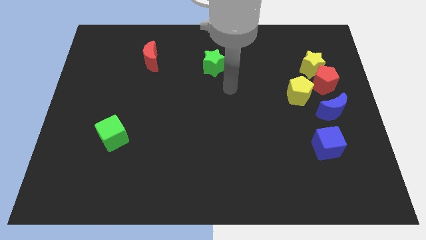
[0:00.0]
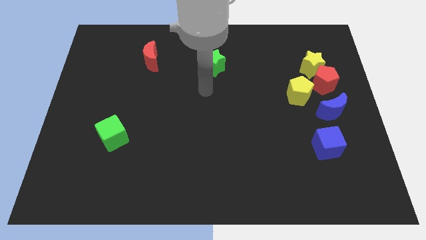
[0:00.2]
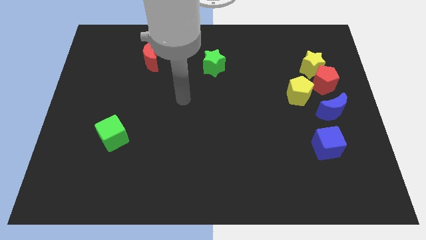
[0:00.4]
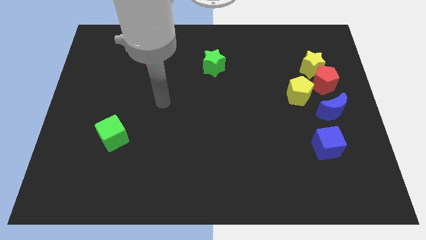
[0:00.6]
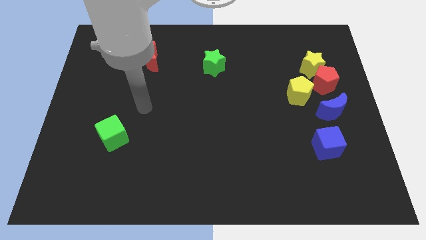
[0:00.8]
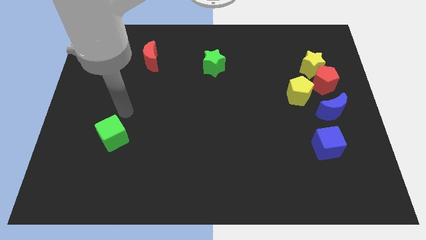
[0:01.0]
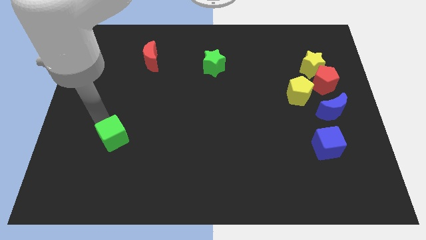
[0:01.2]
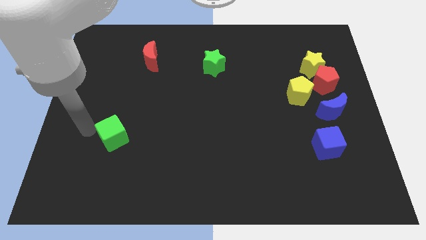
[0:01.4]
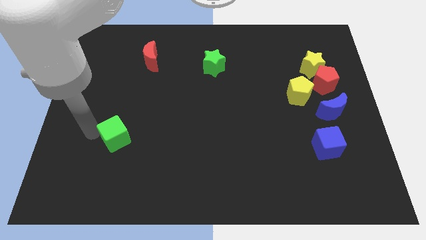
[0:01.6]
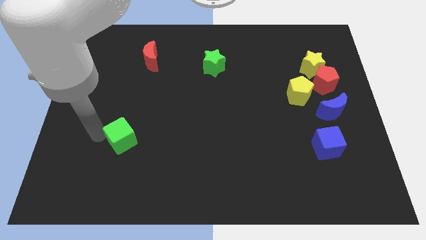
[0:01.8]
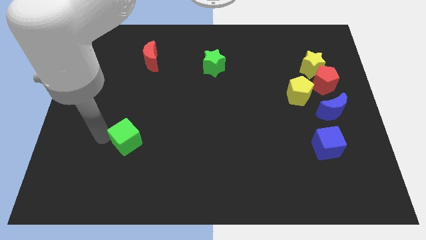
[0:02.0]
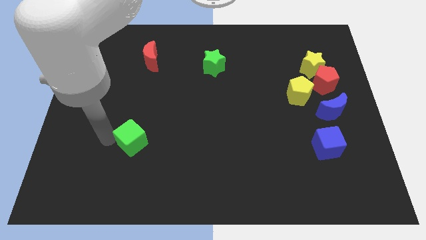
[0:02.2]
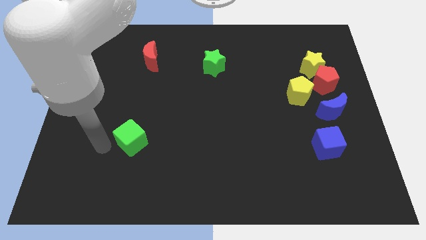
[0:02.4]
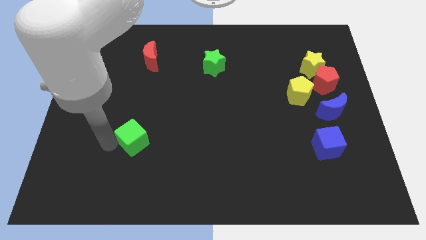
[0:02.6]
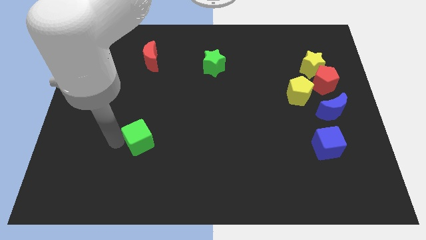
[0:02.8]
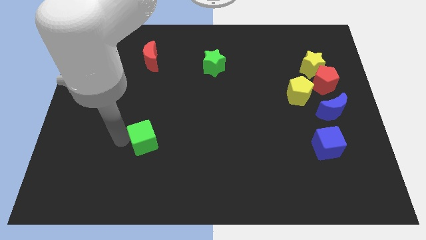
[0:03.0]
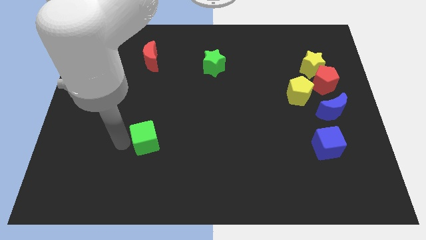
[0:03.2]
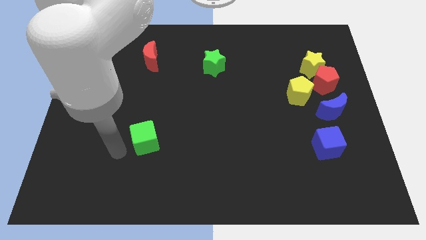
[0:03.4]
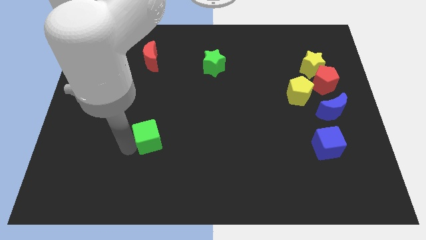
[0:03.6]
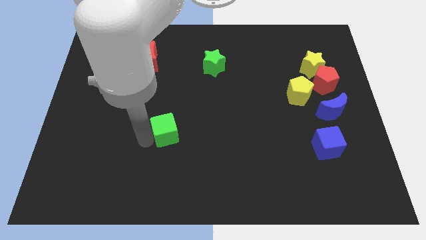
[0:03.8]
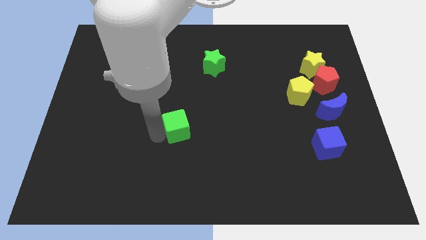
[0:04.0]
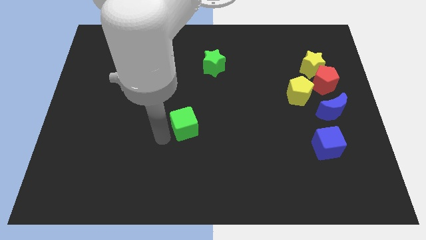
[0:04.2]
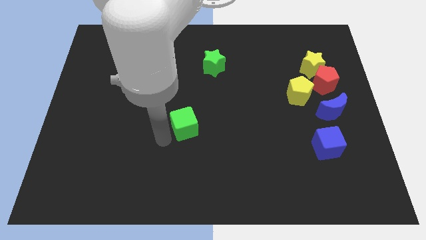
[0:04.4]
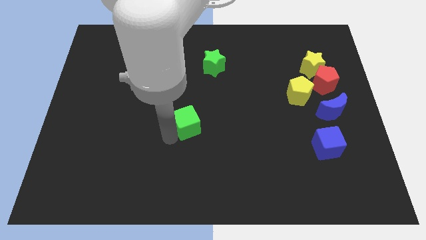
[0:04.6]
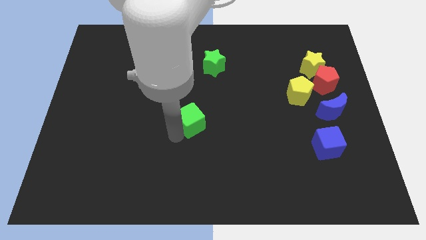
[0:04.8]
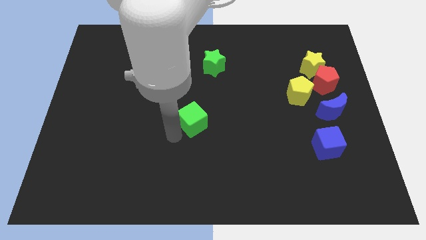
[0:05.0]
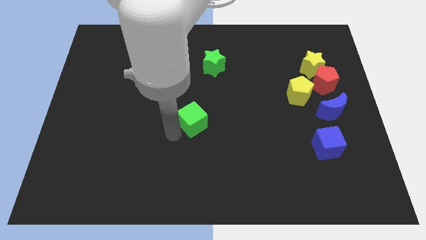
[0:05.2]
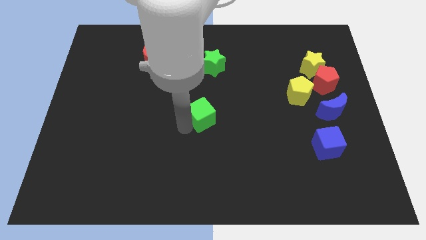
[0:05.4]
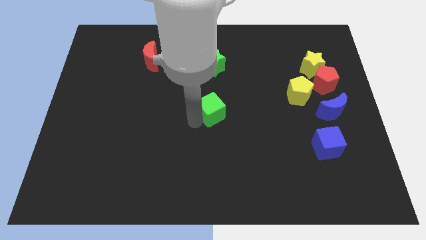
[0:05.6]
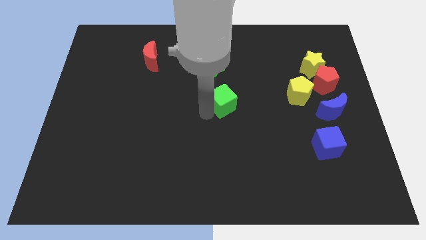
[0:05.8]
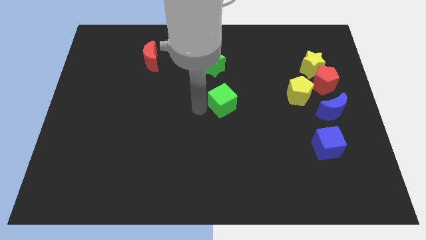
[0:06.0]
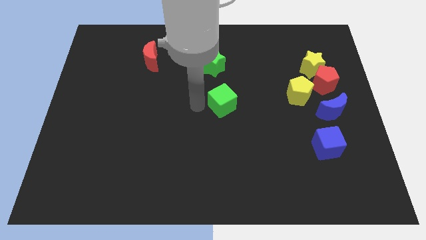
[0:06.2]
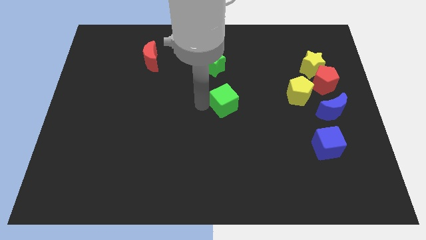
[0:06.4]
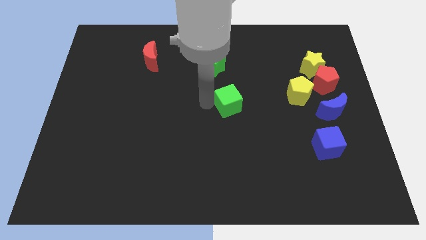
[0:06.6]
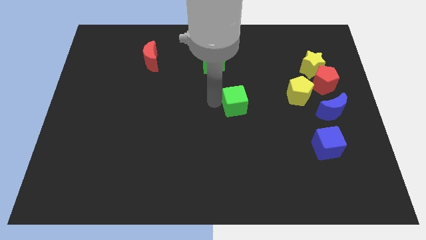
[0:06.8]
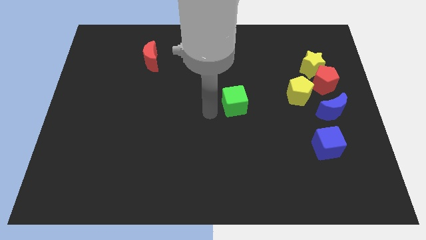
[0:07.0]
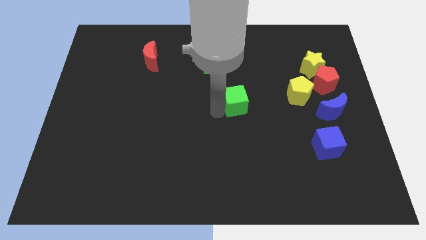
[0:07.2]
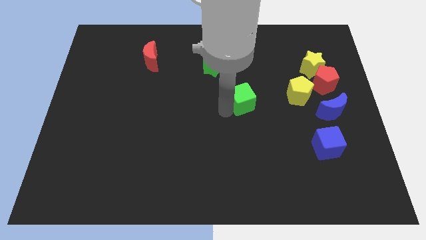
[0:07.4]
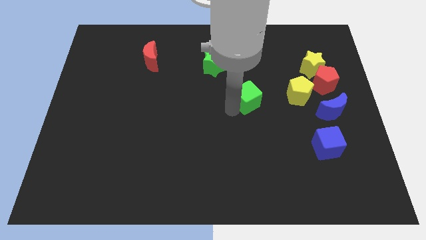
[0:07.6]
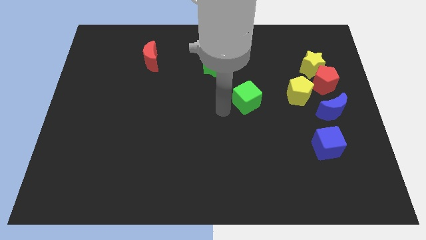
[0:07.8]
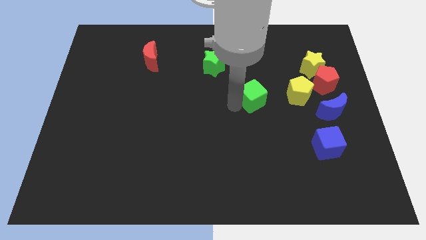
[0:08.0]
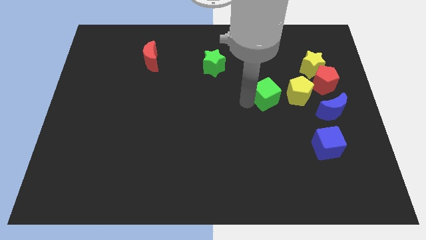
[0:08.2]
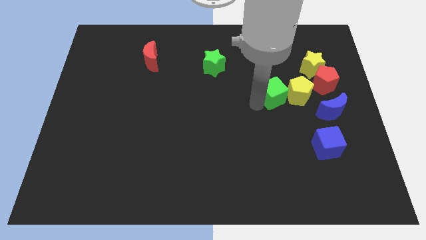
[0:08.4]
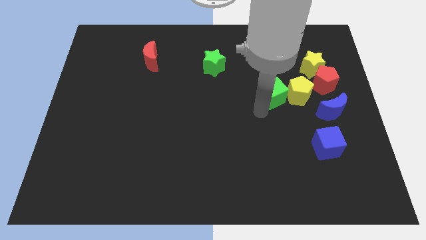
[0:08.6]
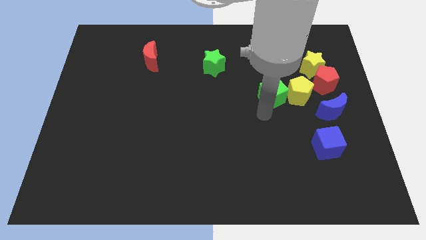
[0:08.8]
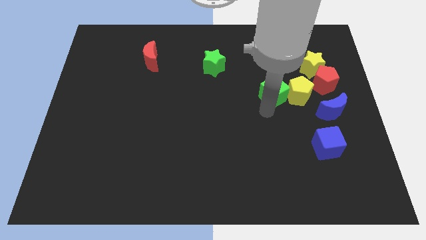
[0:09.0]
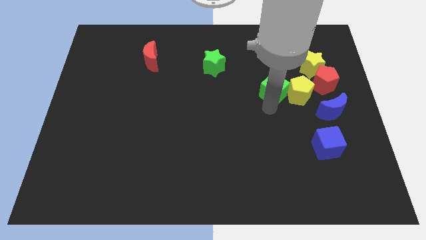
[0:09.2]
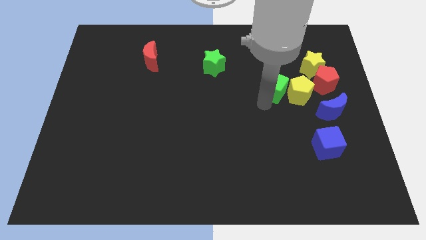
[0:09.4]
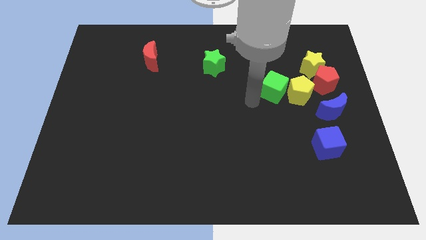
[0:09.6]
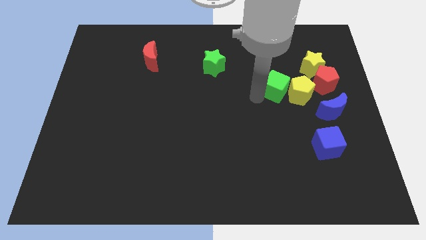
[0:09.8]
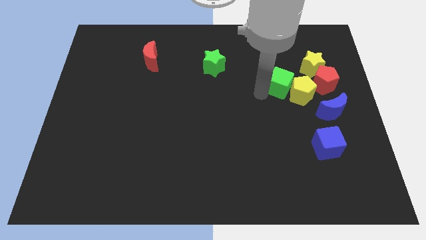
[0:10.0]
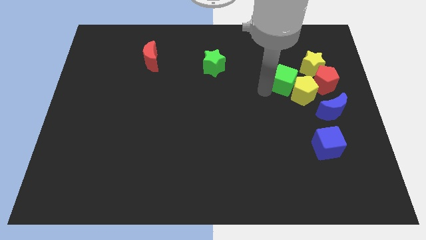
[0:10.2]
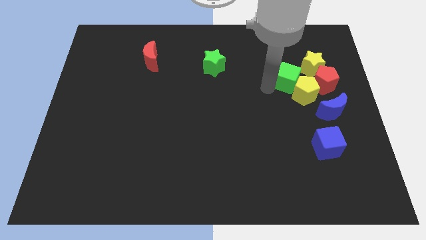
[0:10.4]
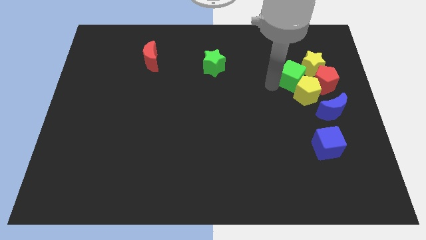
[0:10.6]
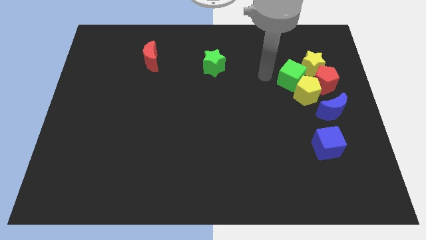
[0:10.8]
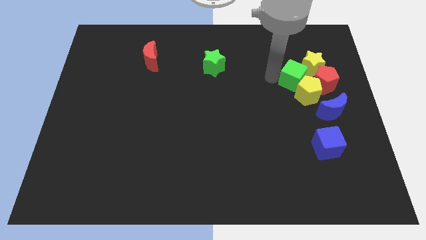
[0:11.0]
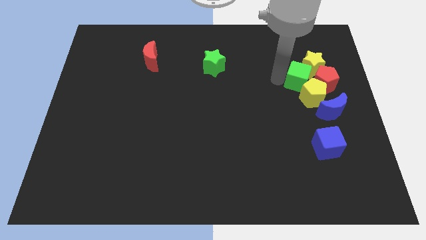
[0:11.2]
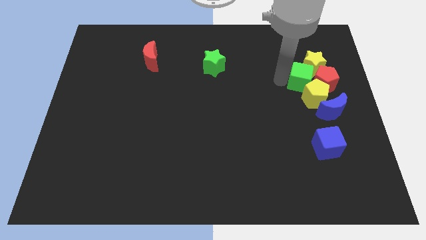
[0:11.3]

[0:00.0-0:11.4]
push the green cube to the red pentagon

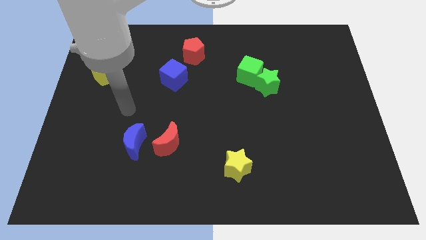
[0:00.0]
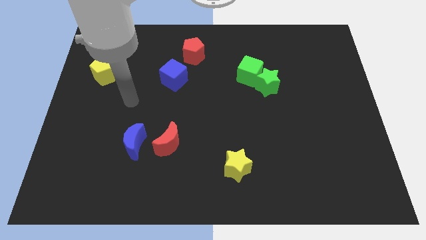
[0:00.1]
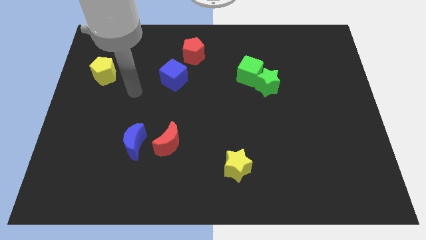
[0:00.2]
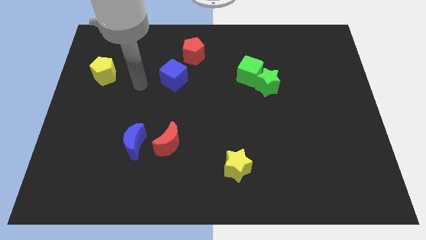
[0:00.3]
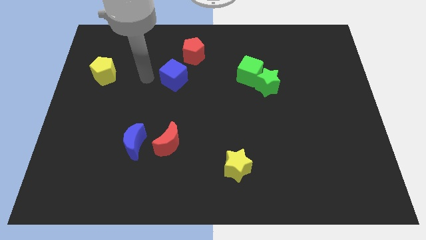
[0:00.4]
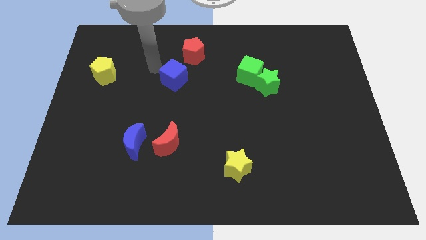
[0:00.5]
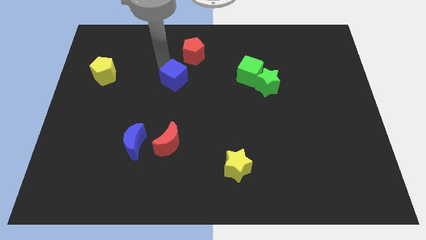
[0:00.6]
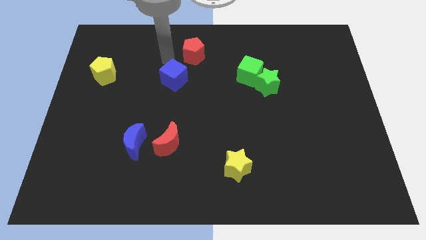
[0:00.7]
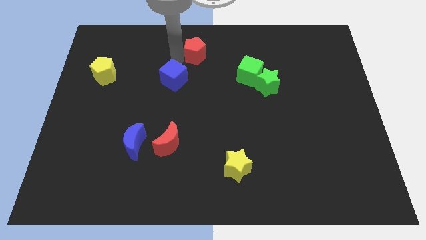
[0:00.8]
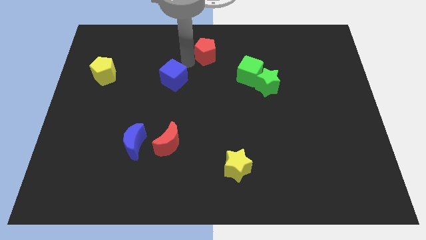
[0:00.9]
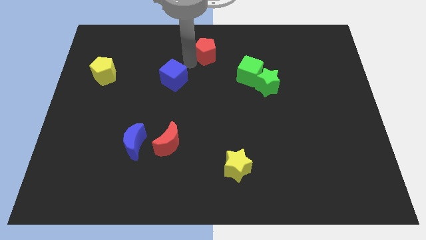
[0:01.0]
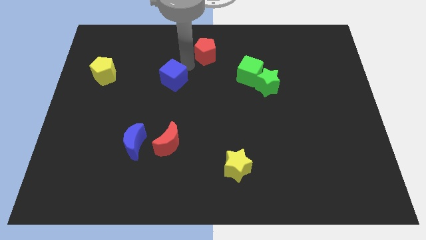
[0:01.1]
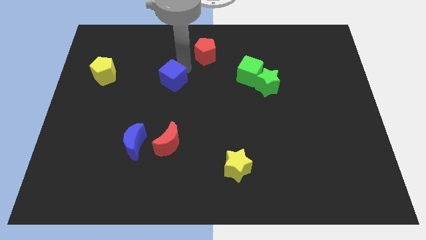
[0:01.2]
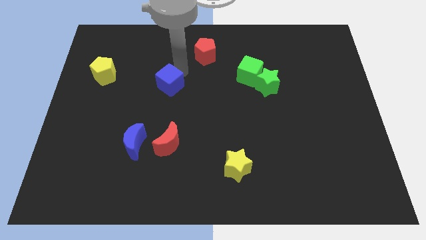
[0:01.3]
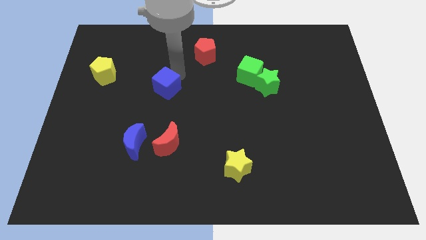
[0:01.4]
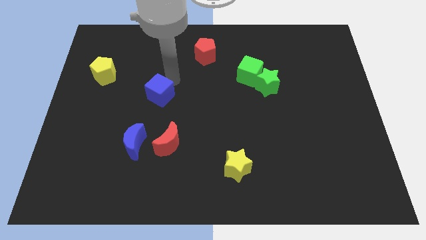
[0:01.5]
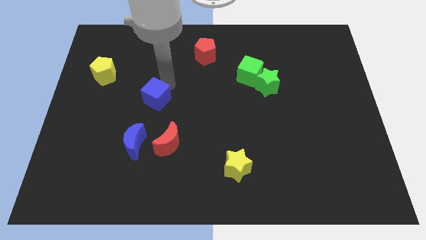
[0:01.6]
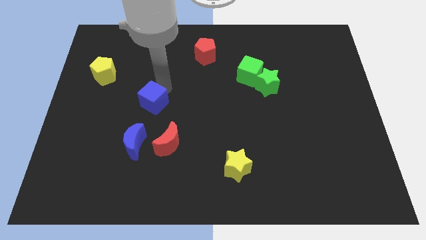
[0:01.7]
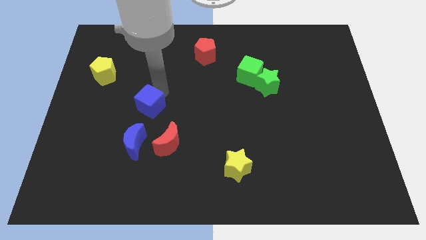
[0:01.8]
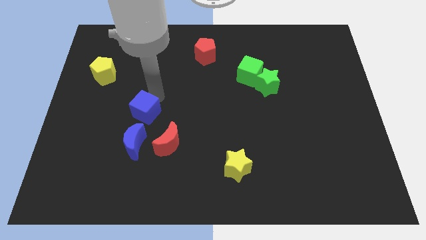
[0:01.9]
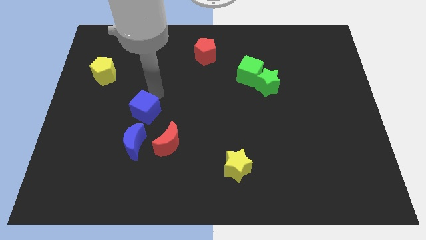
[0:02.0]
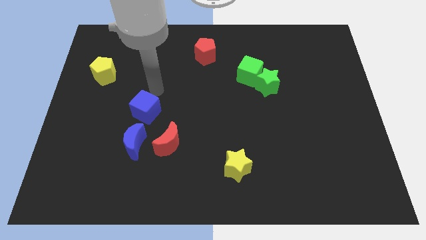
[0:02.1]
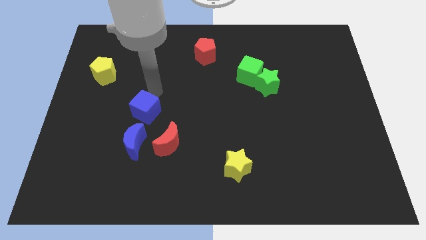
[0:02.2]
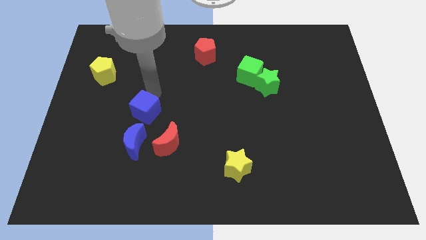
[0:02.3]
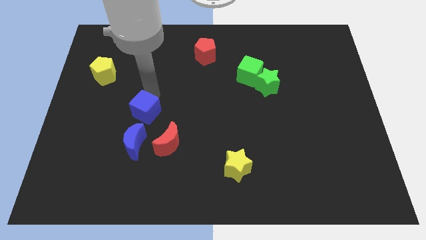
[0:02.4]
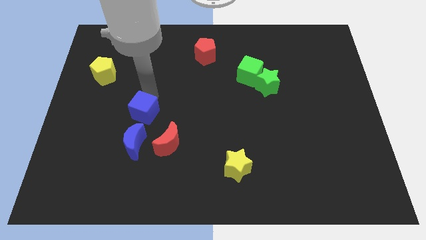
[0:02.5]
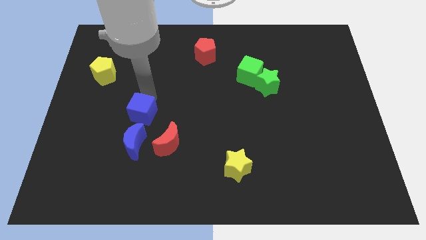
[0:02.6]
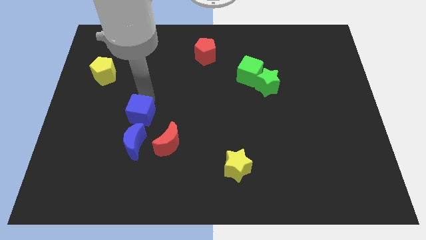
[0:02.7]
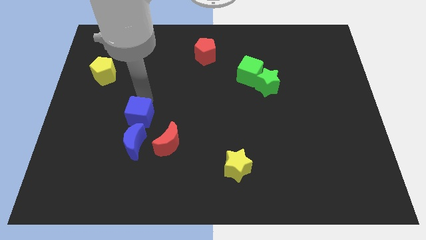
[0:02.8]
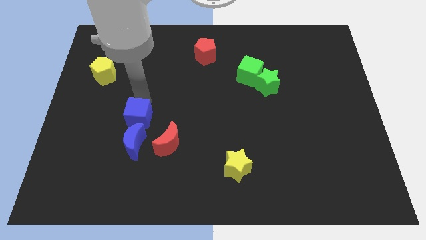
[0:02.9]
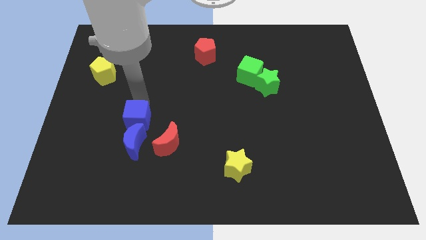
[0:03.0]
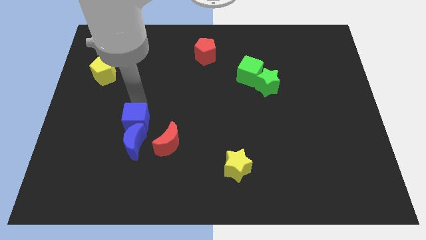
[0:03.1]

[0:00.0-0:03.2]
slide the blue cube close to the blue moon
